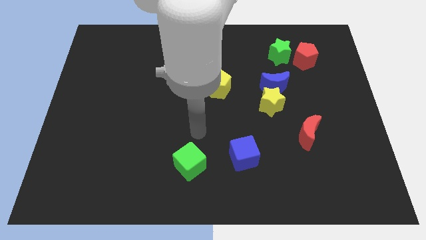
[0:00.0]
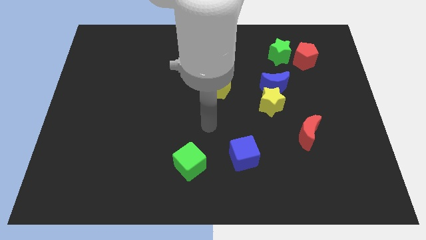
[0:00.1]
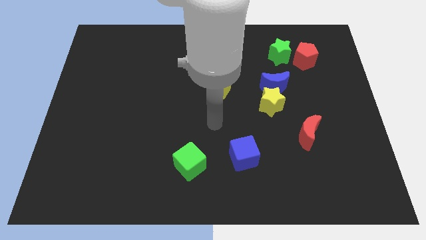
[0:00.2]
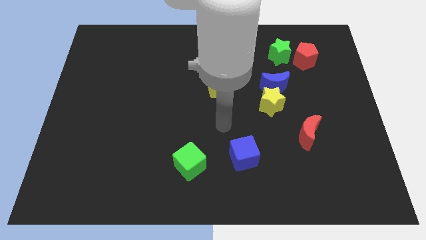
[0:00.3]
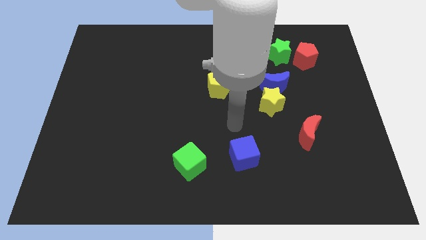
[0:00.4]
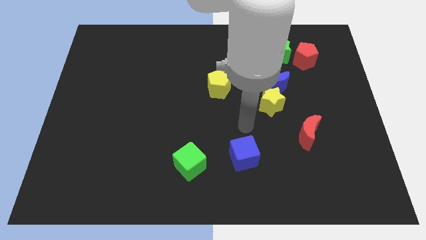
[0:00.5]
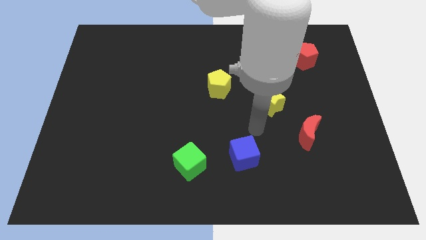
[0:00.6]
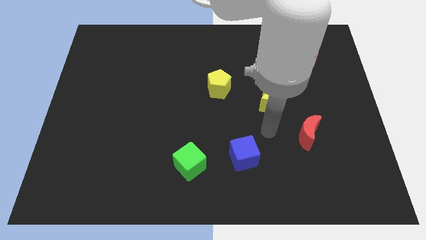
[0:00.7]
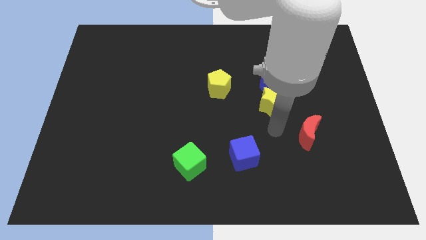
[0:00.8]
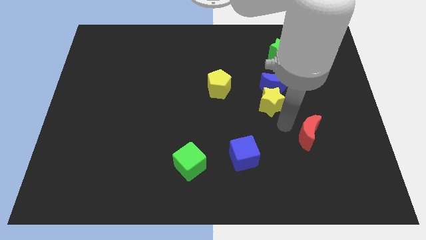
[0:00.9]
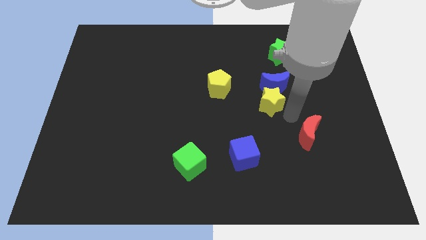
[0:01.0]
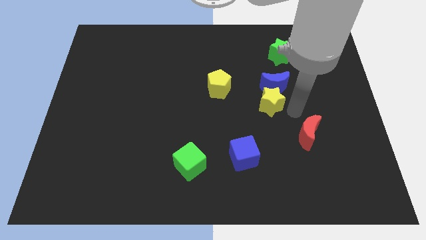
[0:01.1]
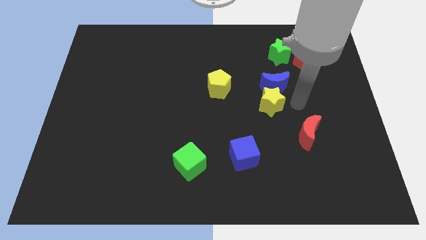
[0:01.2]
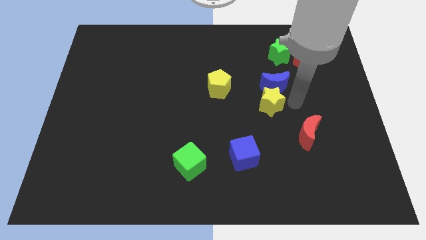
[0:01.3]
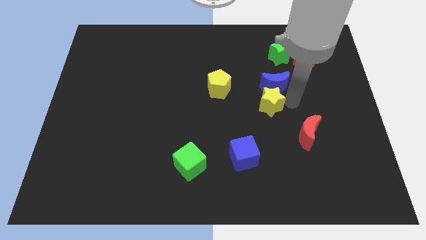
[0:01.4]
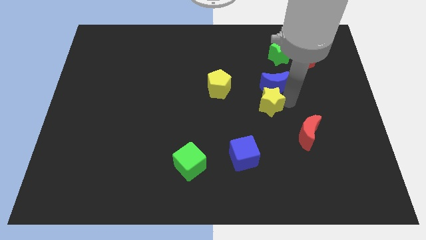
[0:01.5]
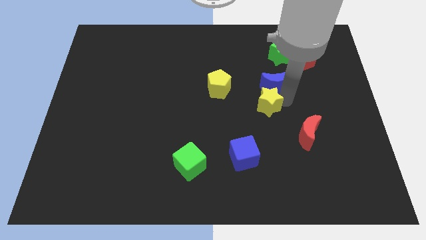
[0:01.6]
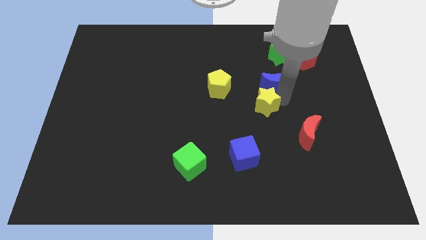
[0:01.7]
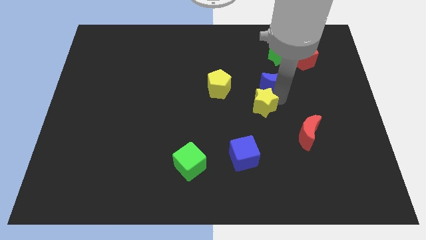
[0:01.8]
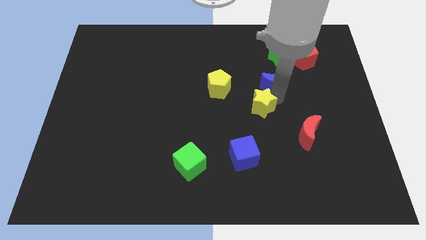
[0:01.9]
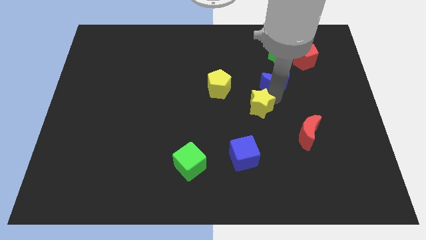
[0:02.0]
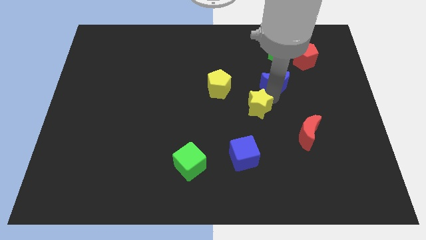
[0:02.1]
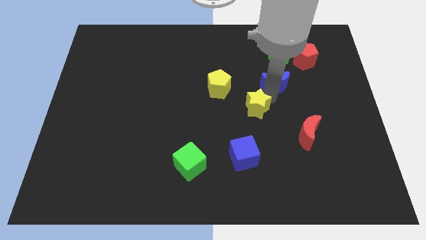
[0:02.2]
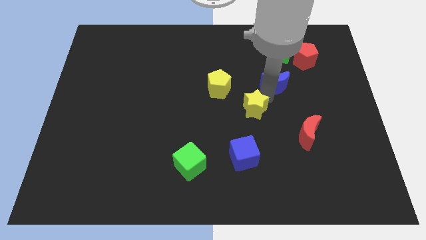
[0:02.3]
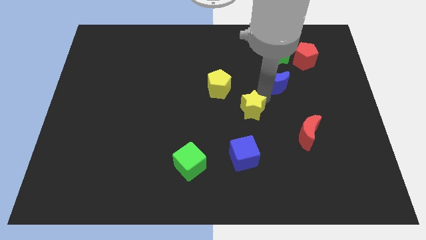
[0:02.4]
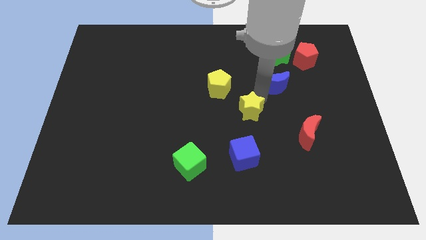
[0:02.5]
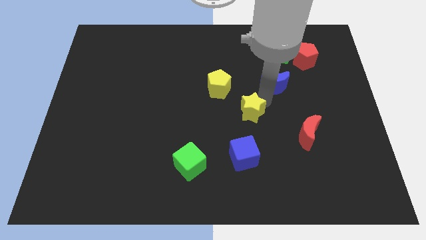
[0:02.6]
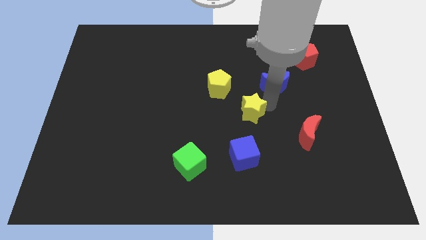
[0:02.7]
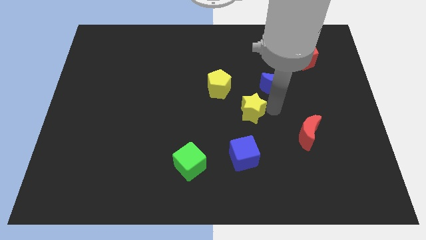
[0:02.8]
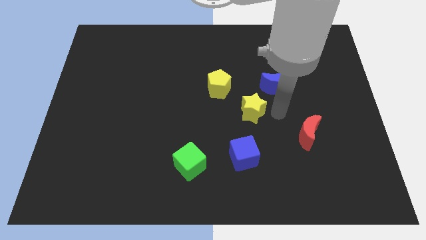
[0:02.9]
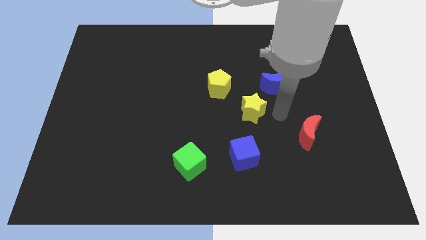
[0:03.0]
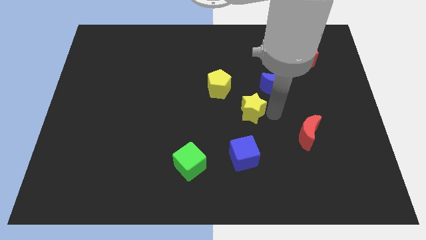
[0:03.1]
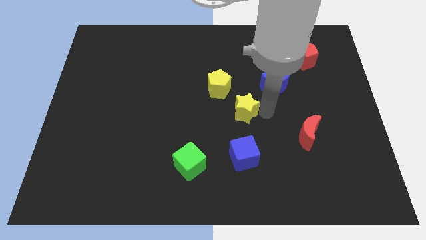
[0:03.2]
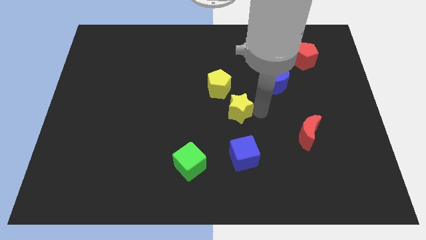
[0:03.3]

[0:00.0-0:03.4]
slightly move the yellow star to the left

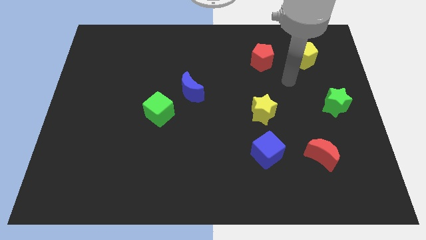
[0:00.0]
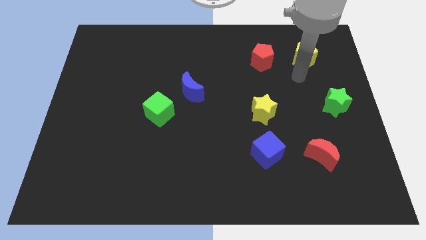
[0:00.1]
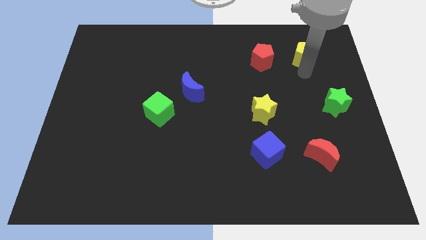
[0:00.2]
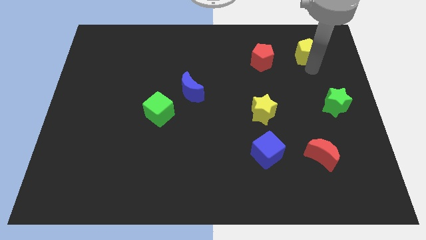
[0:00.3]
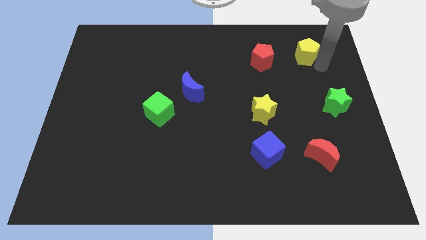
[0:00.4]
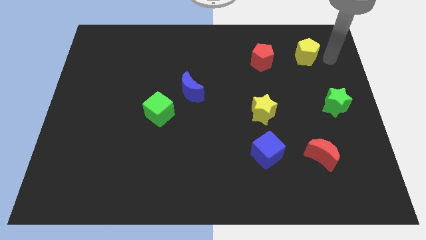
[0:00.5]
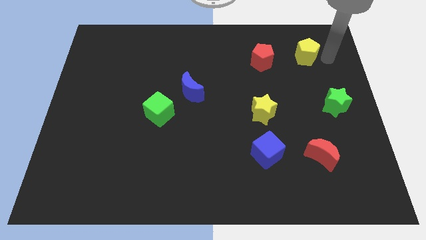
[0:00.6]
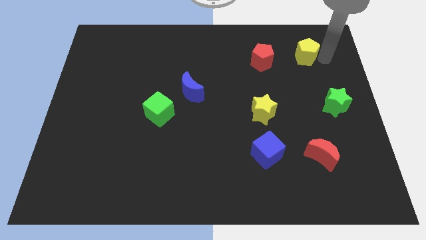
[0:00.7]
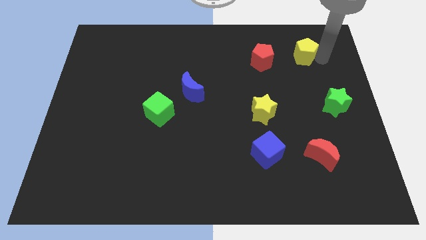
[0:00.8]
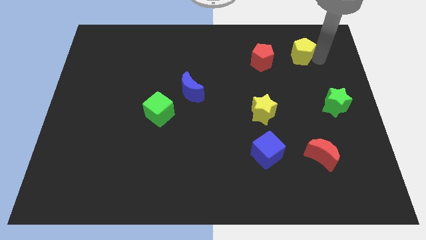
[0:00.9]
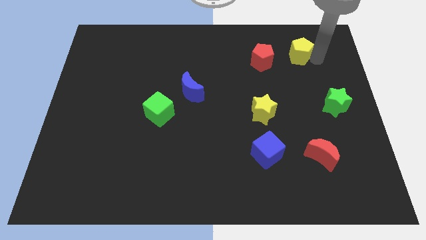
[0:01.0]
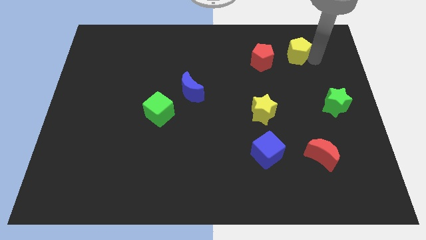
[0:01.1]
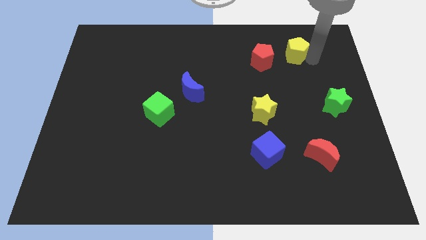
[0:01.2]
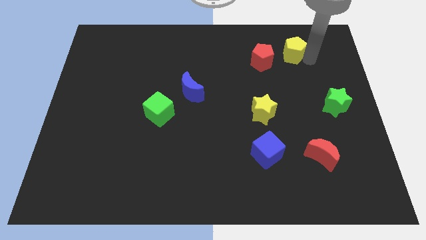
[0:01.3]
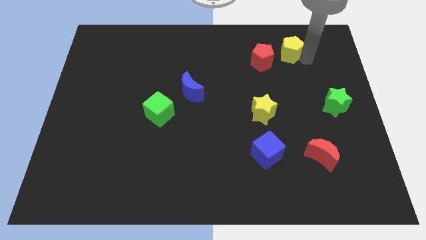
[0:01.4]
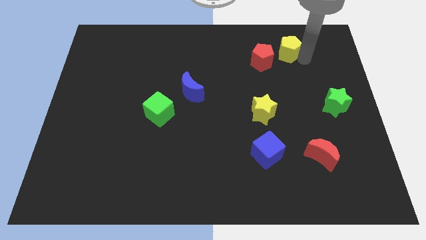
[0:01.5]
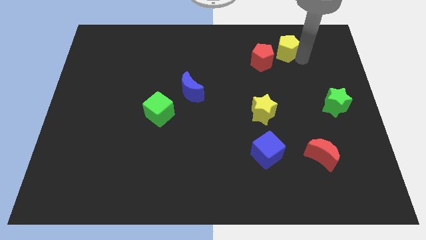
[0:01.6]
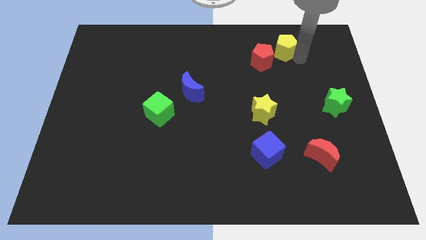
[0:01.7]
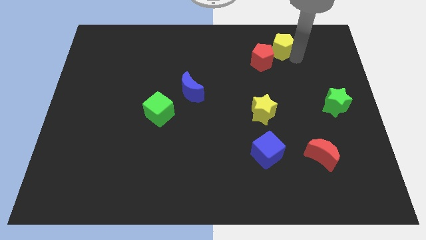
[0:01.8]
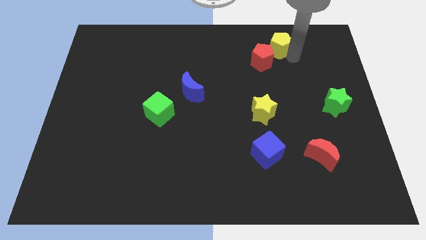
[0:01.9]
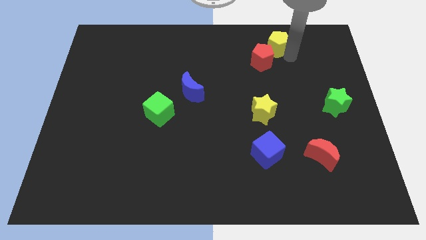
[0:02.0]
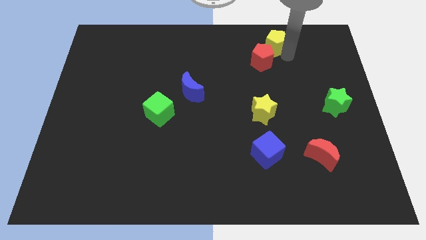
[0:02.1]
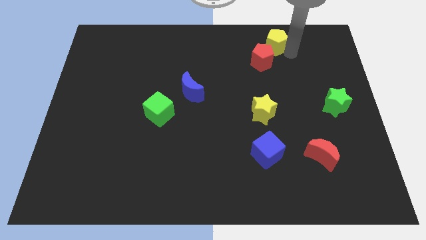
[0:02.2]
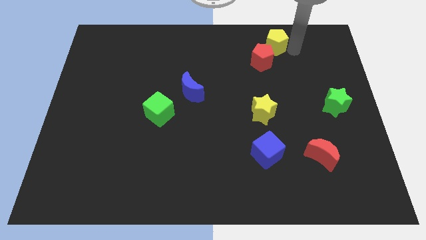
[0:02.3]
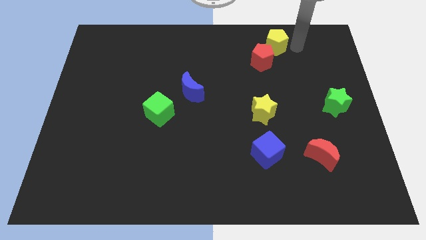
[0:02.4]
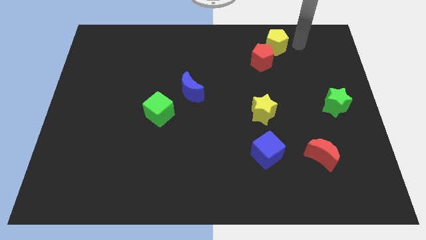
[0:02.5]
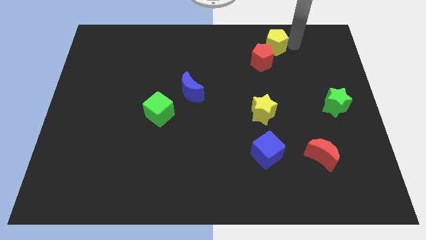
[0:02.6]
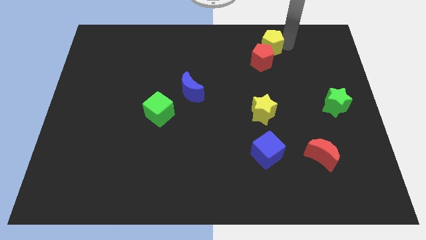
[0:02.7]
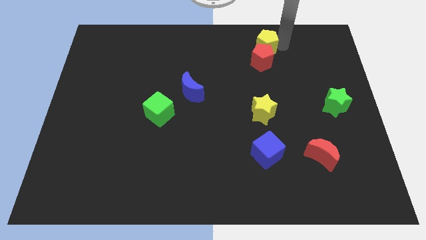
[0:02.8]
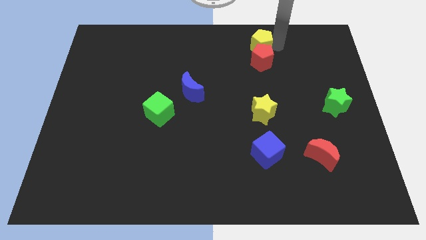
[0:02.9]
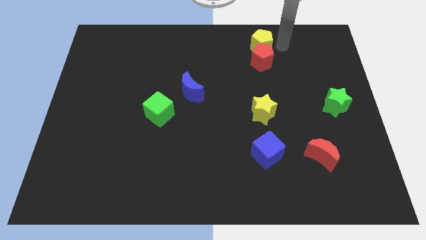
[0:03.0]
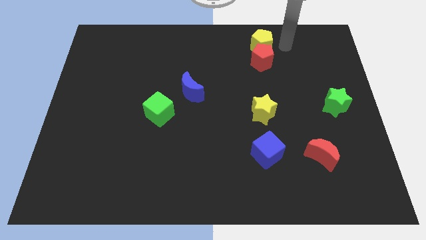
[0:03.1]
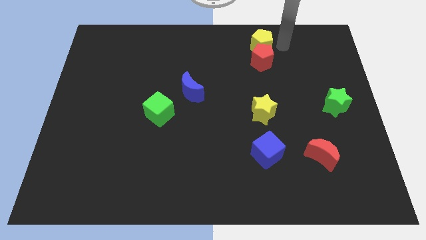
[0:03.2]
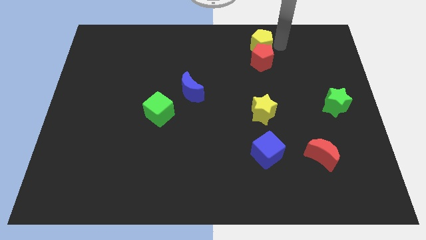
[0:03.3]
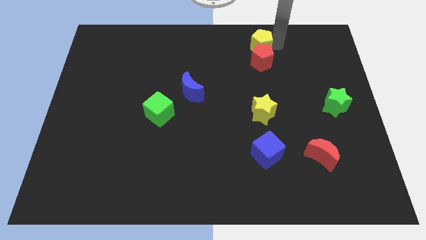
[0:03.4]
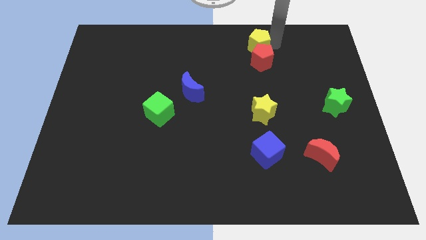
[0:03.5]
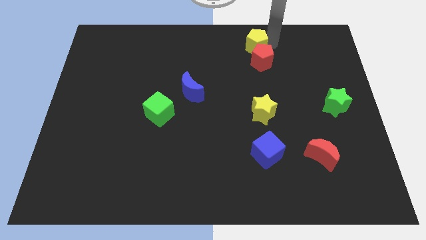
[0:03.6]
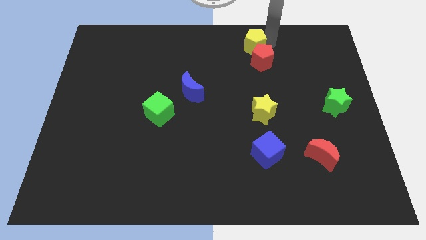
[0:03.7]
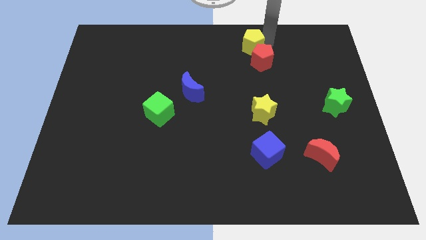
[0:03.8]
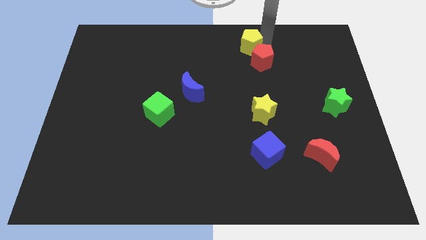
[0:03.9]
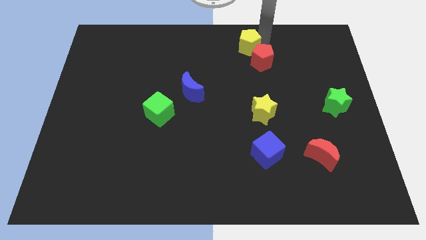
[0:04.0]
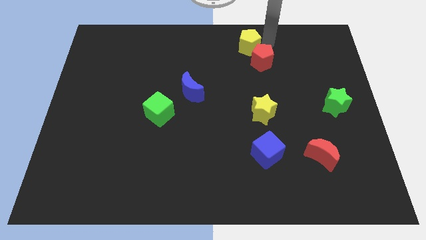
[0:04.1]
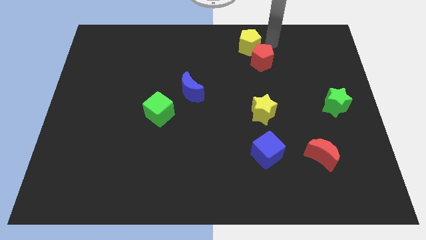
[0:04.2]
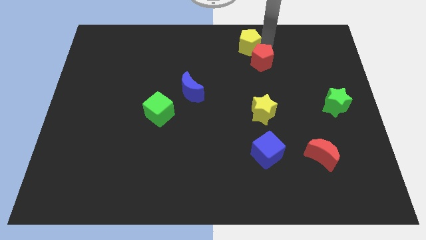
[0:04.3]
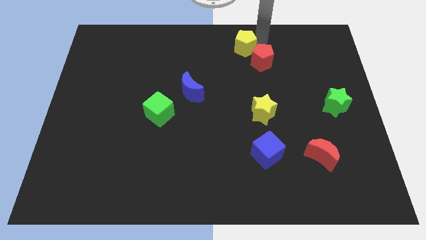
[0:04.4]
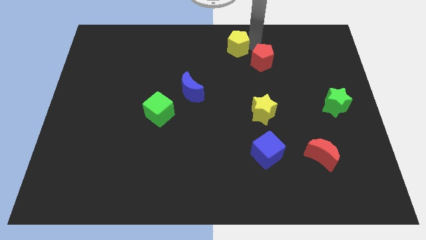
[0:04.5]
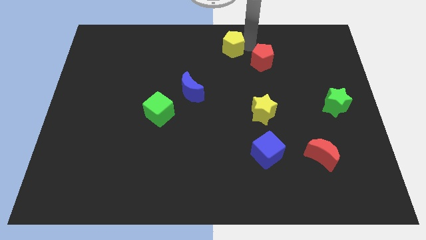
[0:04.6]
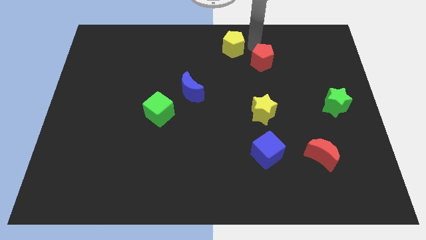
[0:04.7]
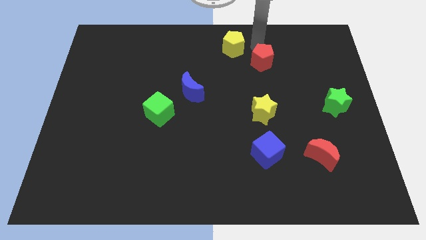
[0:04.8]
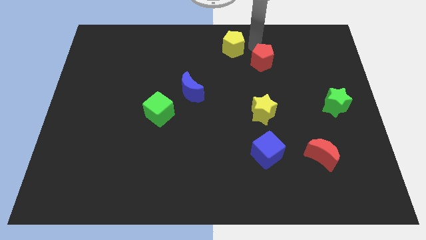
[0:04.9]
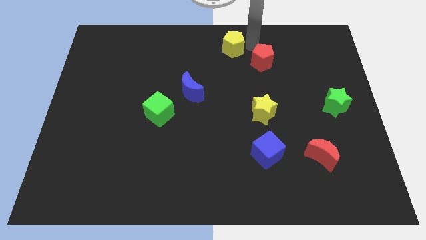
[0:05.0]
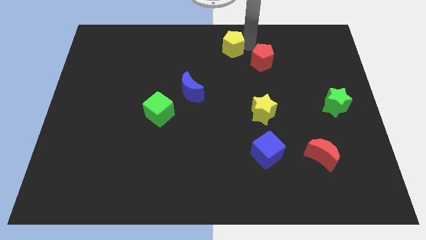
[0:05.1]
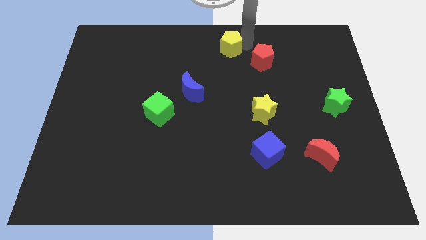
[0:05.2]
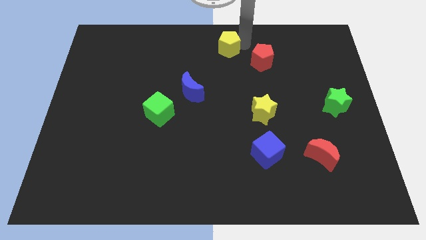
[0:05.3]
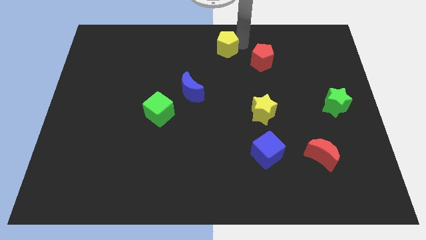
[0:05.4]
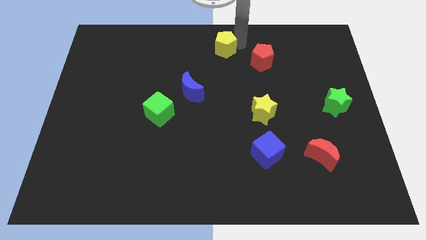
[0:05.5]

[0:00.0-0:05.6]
push the yellow pentagon left
